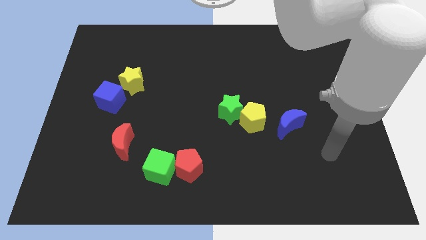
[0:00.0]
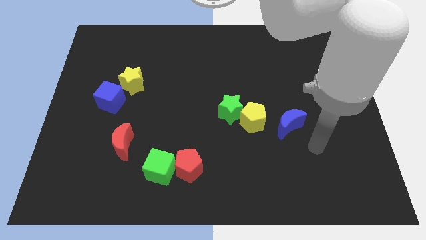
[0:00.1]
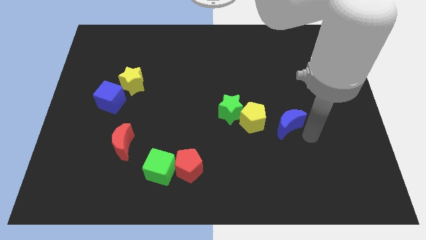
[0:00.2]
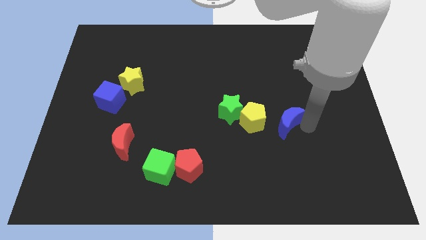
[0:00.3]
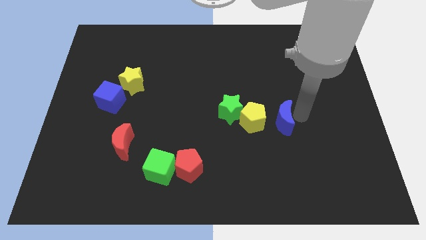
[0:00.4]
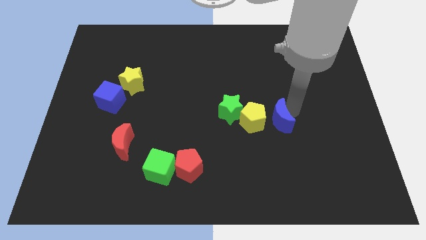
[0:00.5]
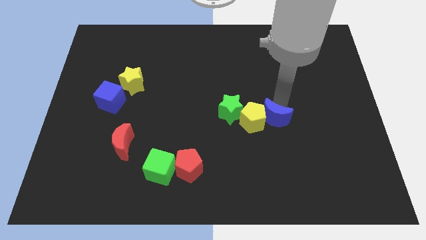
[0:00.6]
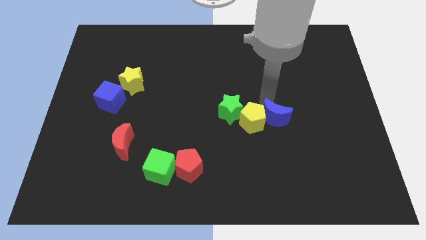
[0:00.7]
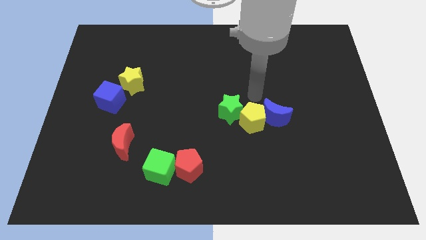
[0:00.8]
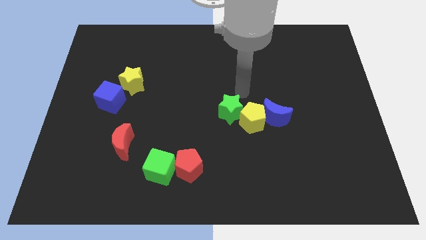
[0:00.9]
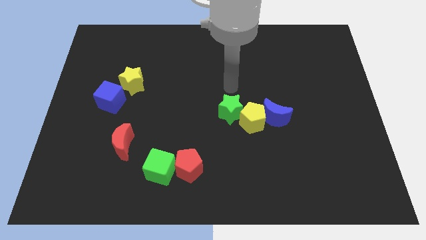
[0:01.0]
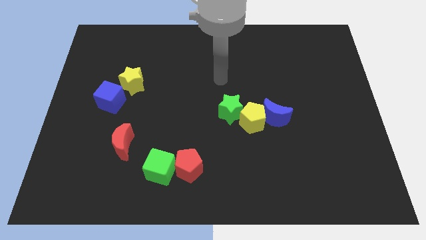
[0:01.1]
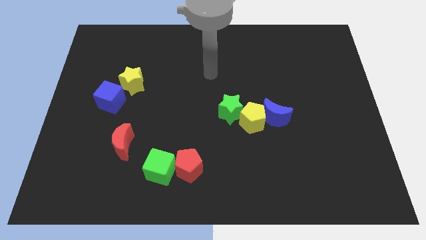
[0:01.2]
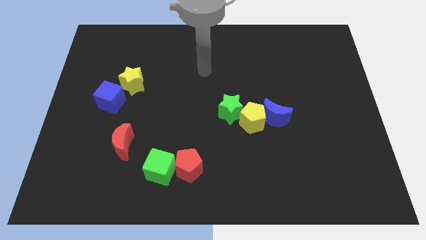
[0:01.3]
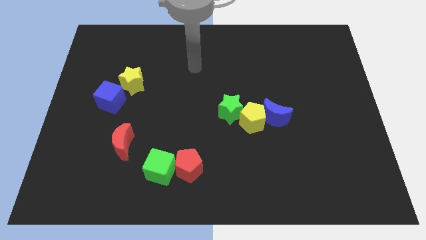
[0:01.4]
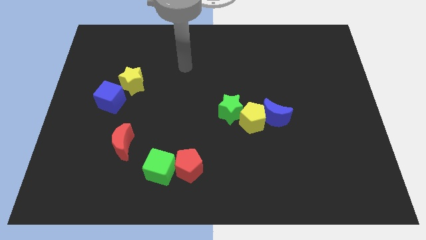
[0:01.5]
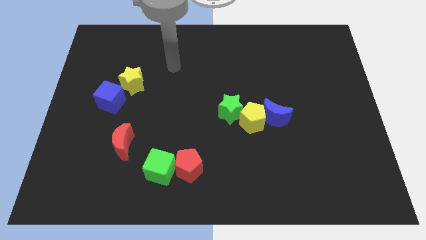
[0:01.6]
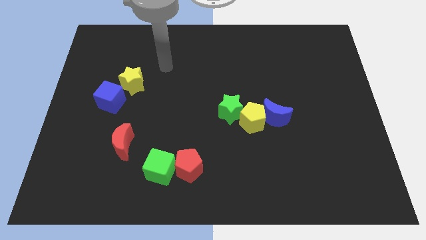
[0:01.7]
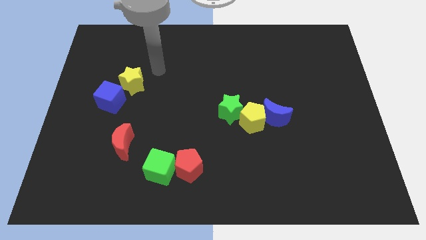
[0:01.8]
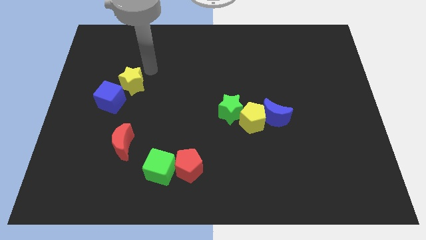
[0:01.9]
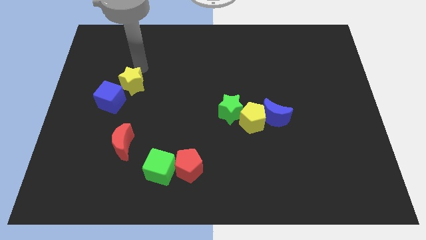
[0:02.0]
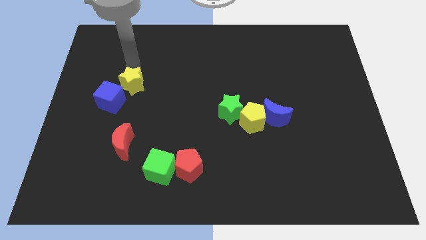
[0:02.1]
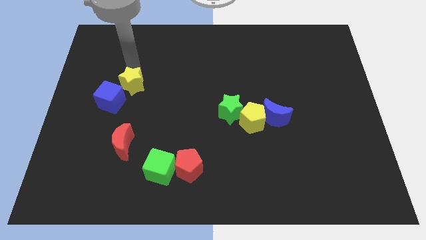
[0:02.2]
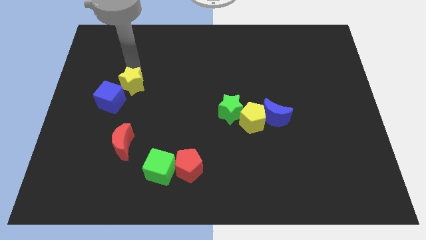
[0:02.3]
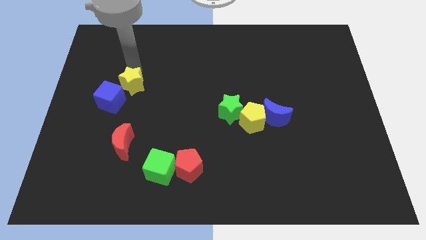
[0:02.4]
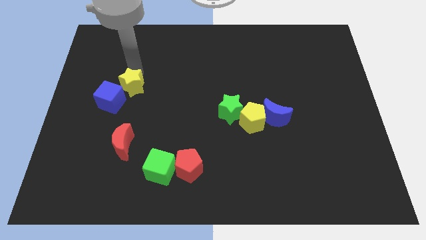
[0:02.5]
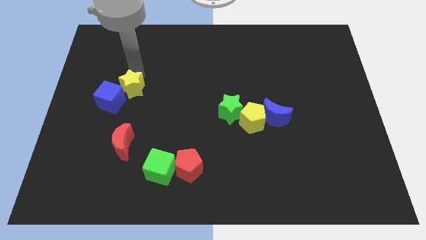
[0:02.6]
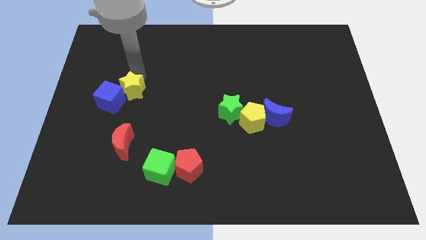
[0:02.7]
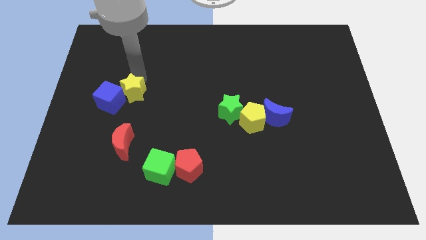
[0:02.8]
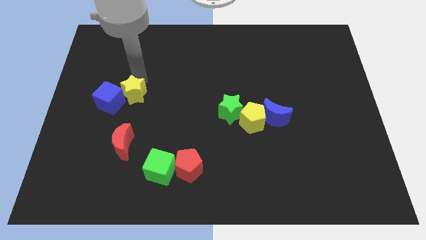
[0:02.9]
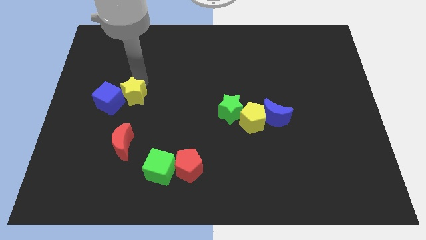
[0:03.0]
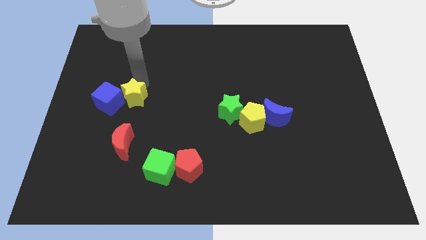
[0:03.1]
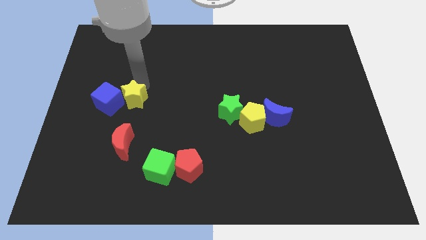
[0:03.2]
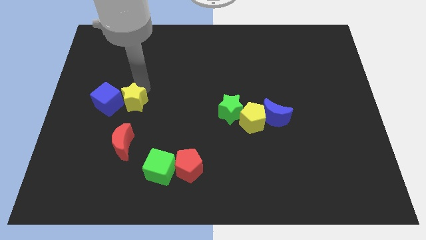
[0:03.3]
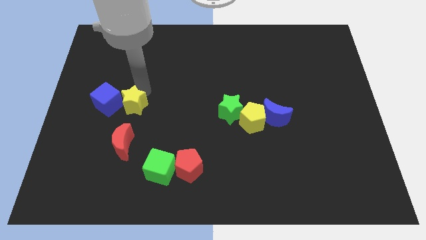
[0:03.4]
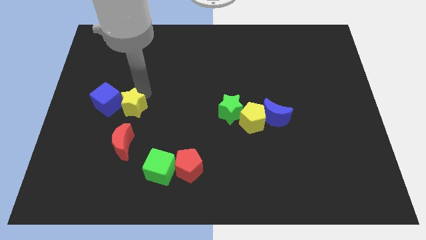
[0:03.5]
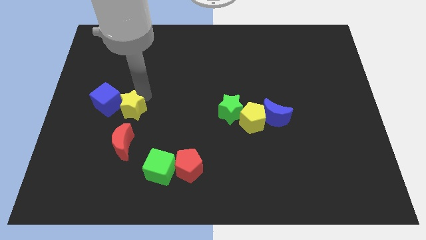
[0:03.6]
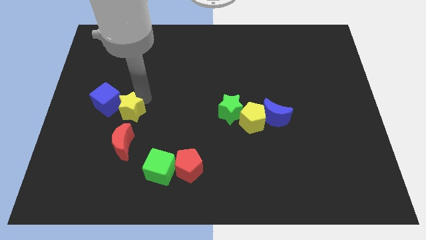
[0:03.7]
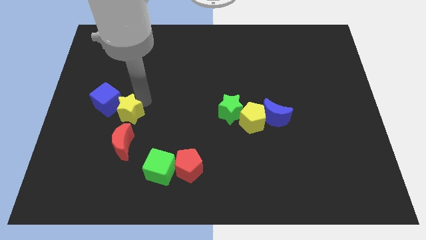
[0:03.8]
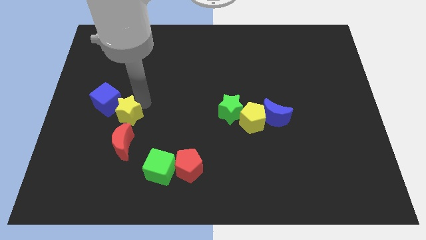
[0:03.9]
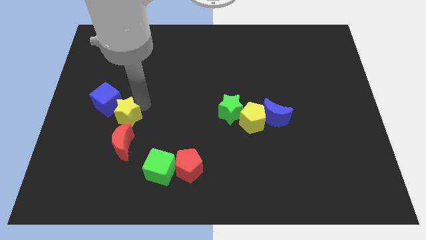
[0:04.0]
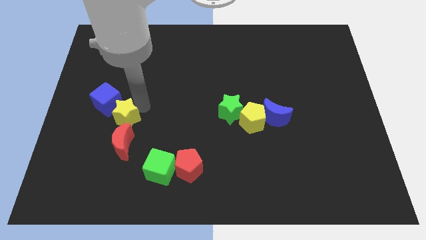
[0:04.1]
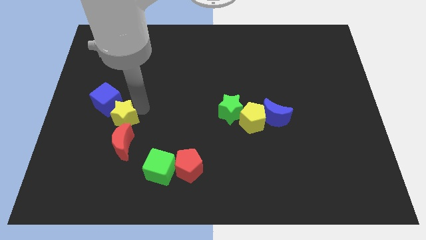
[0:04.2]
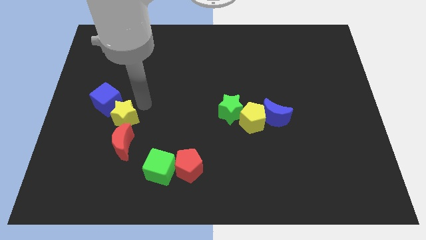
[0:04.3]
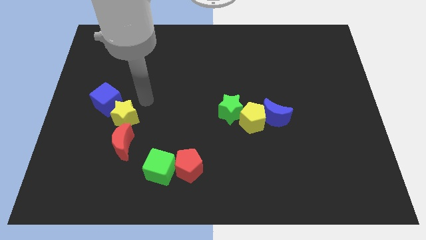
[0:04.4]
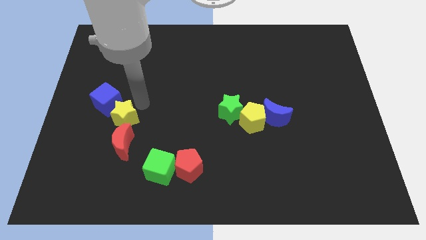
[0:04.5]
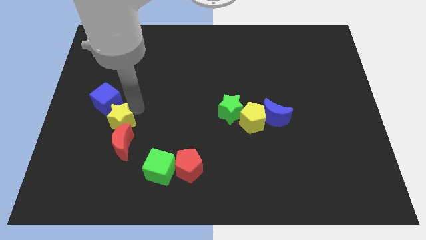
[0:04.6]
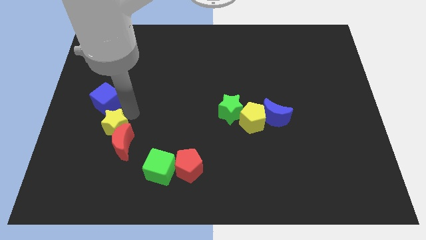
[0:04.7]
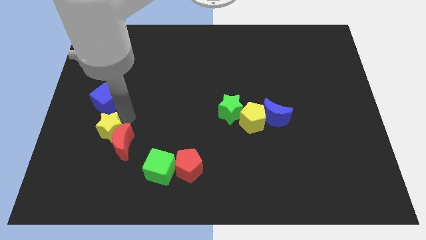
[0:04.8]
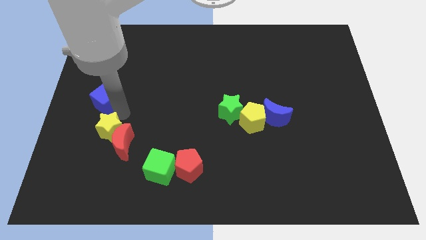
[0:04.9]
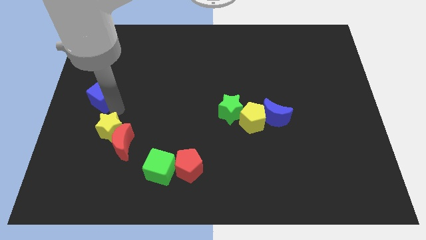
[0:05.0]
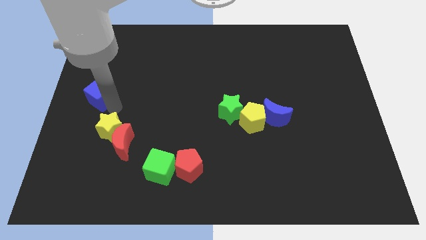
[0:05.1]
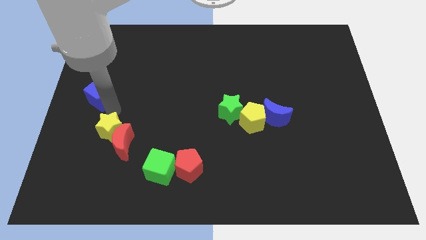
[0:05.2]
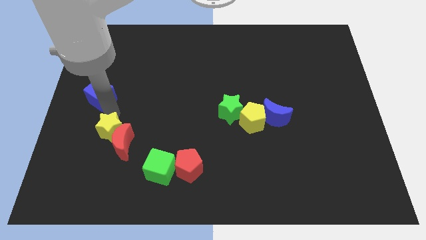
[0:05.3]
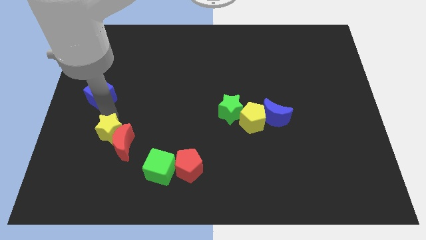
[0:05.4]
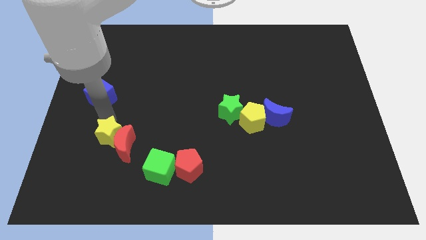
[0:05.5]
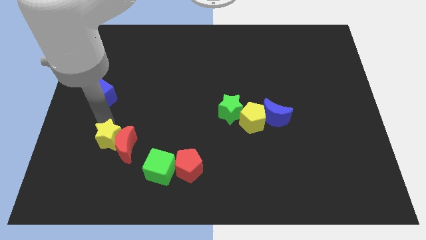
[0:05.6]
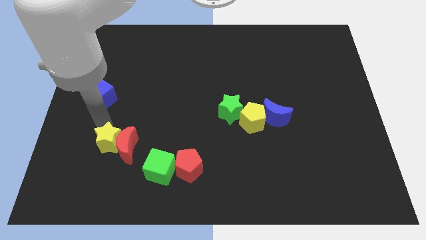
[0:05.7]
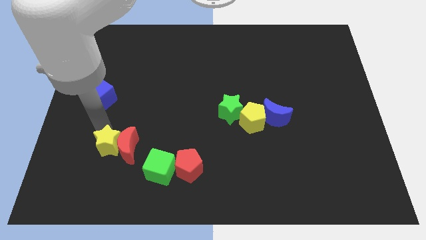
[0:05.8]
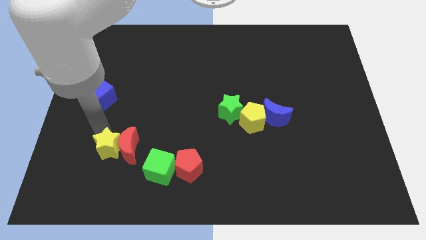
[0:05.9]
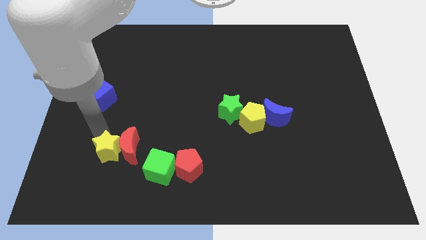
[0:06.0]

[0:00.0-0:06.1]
slide the yellow star left of the green cube
